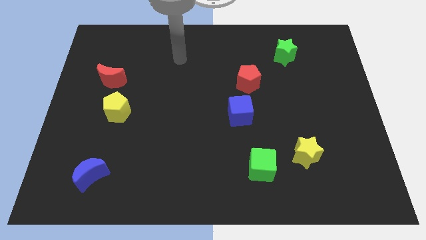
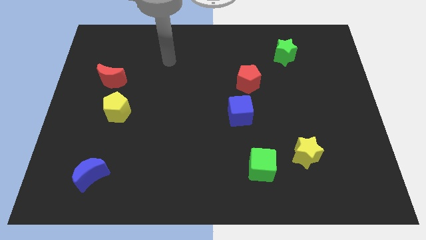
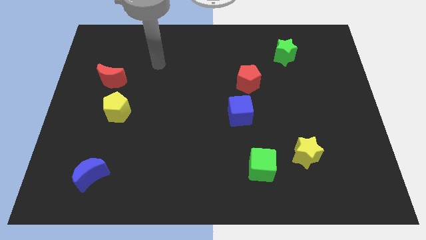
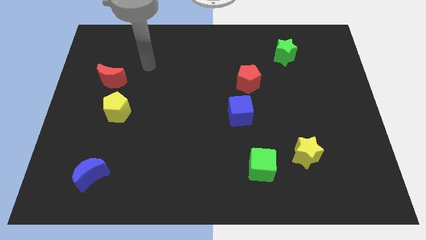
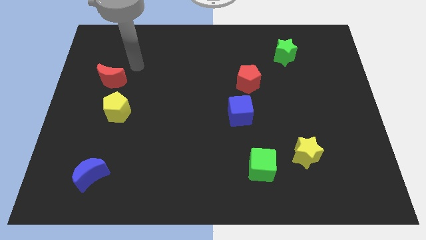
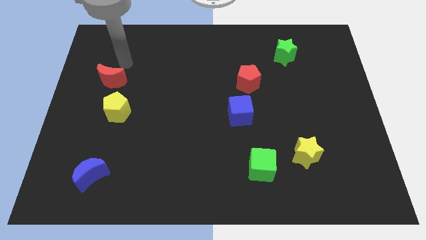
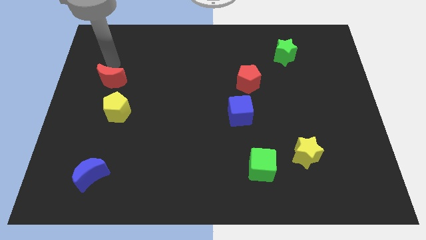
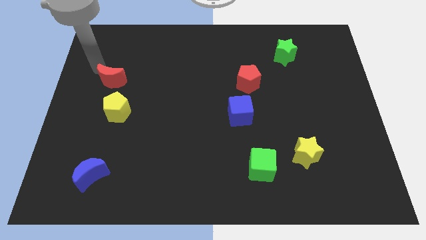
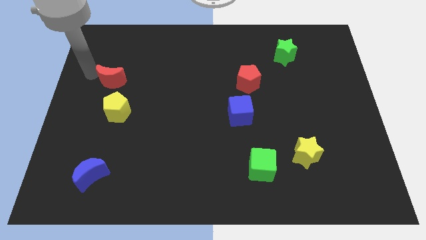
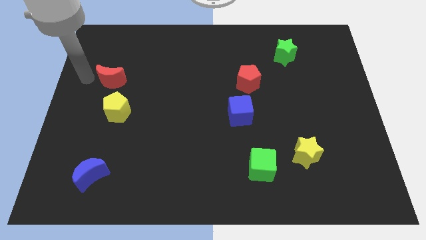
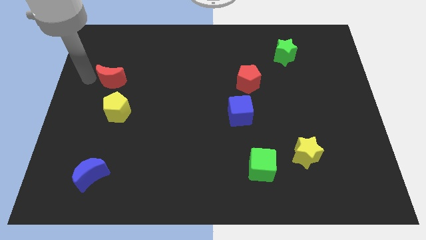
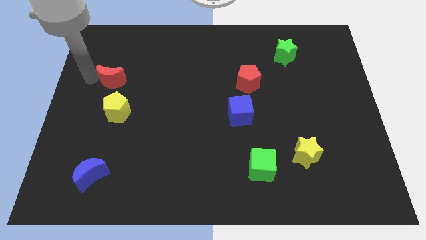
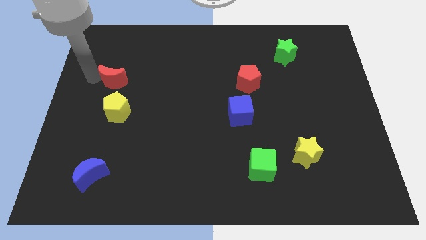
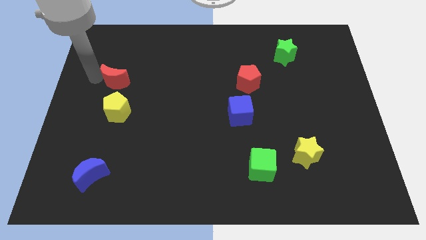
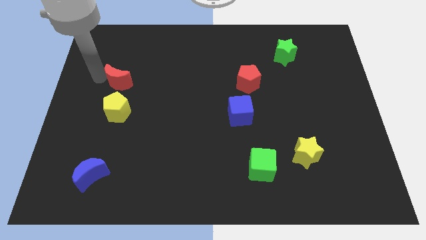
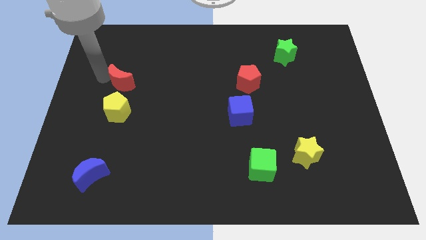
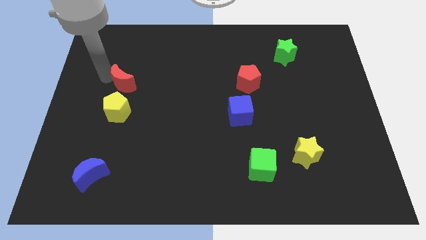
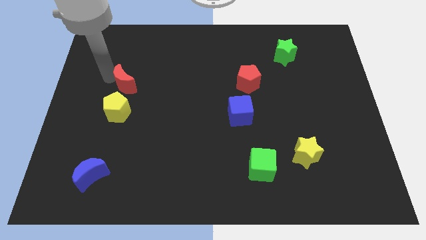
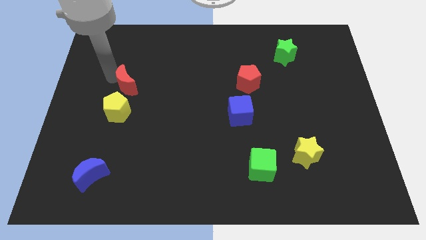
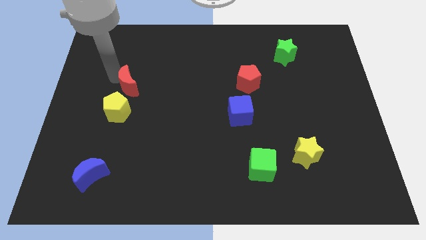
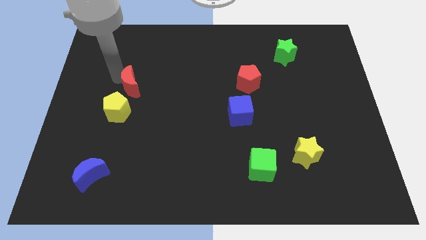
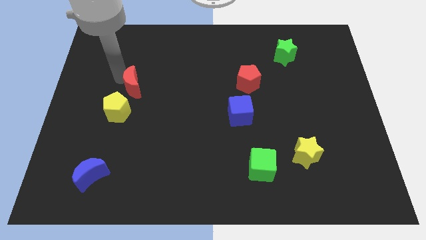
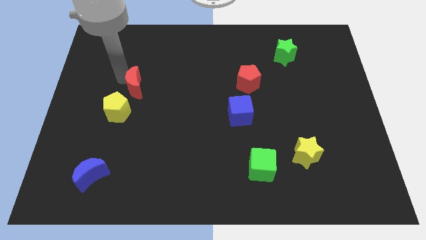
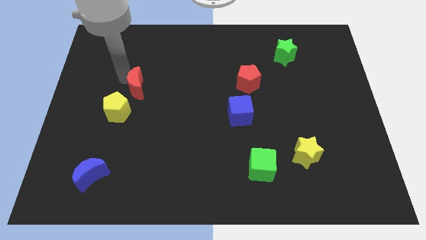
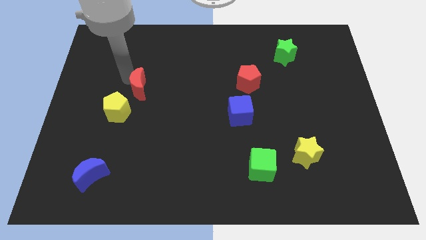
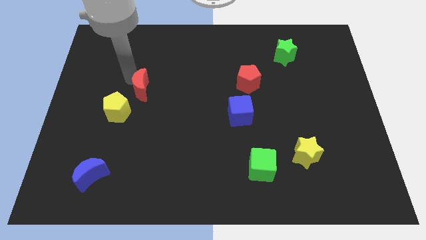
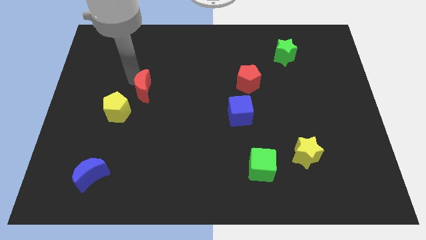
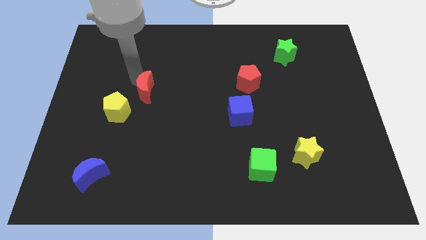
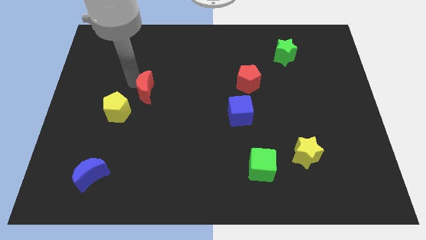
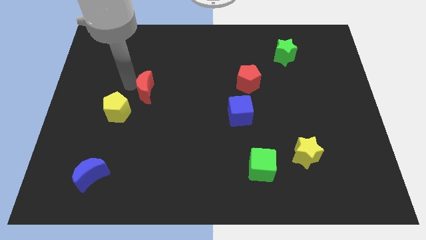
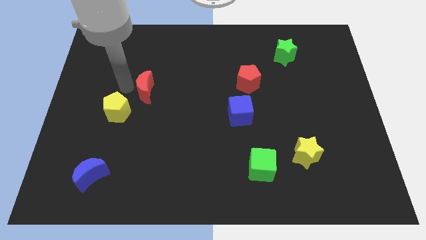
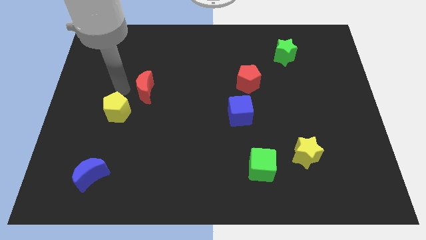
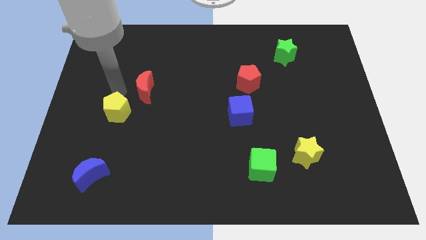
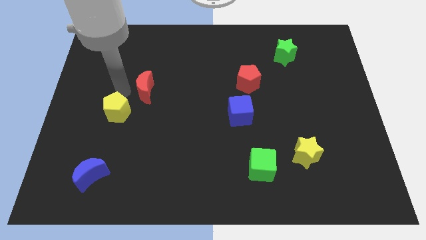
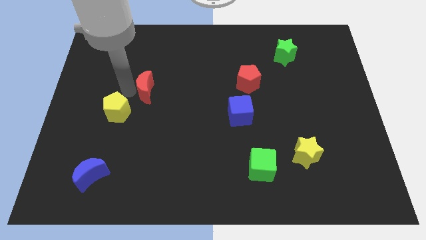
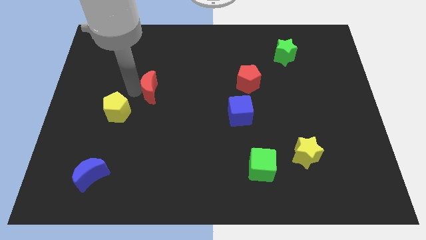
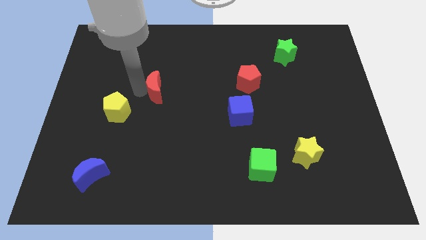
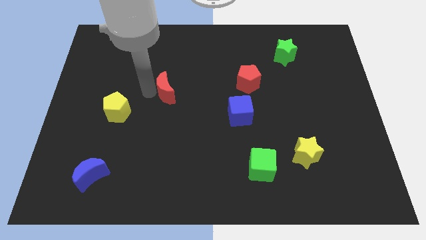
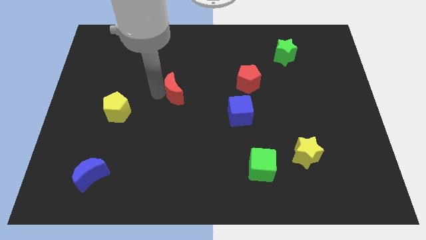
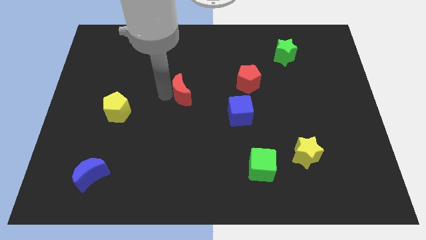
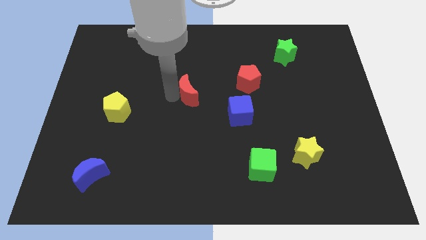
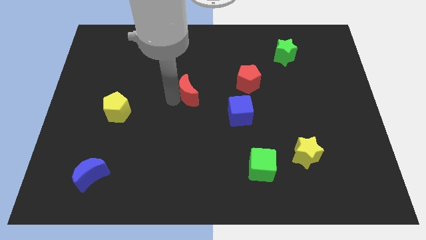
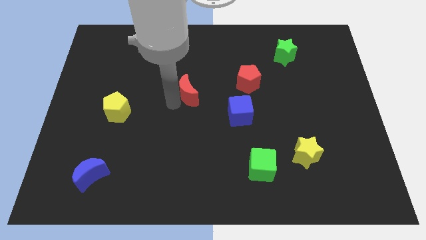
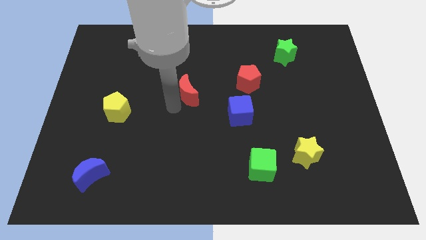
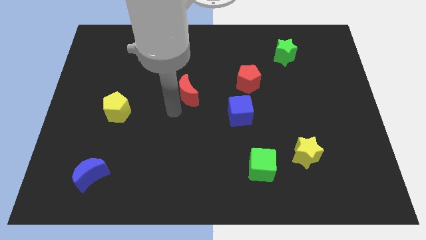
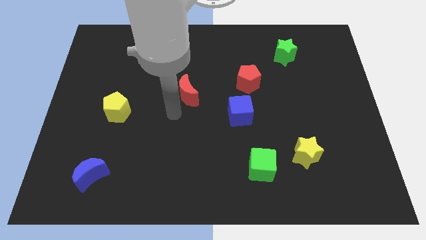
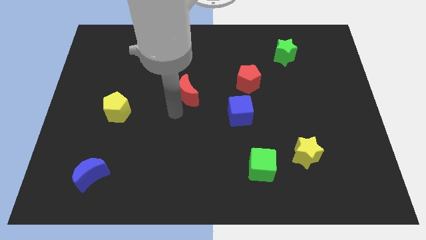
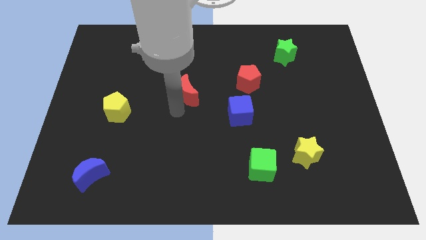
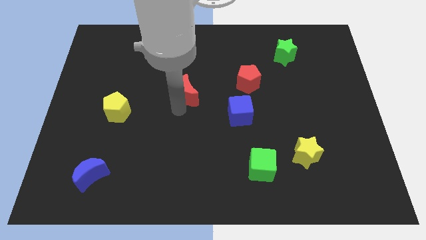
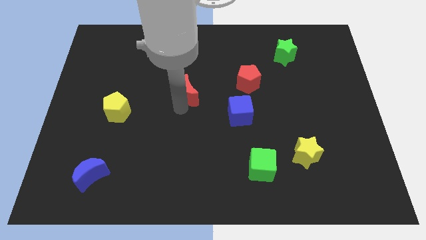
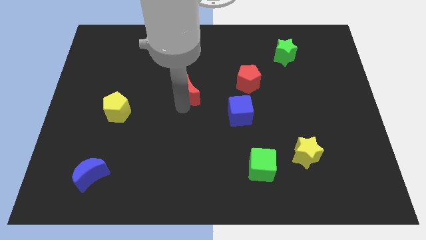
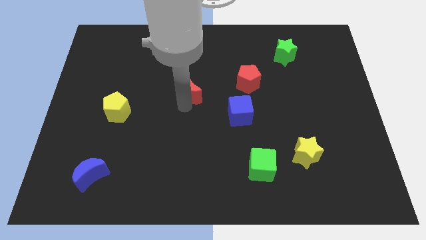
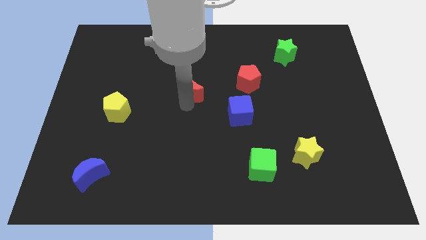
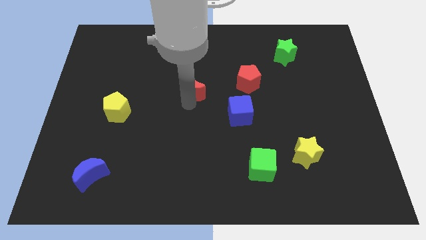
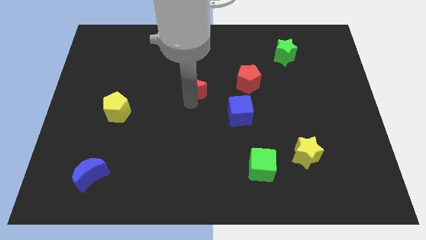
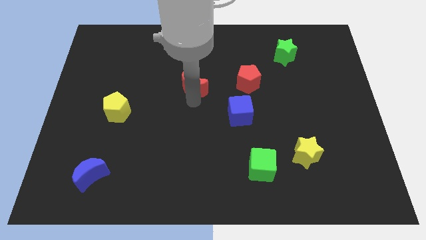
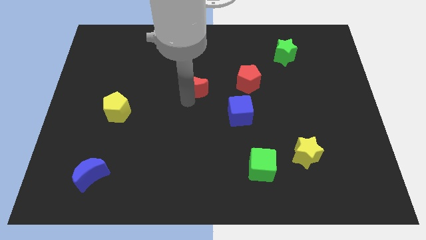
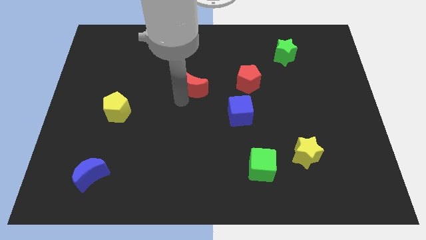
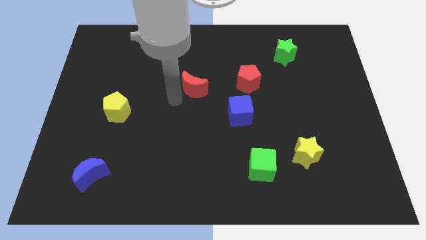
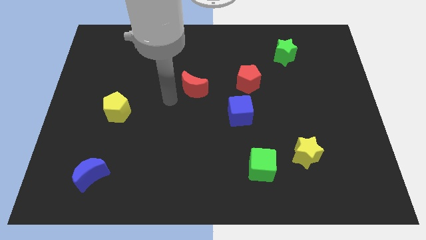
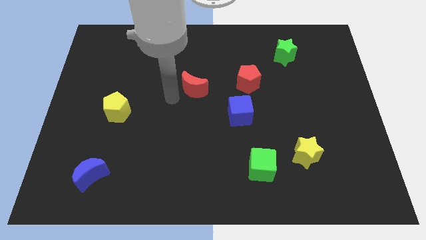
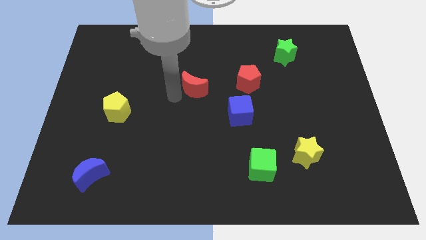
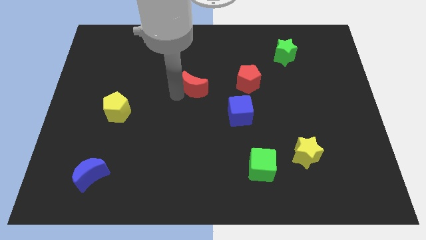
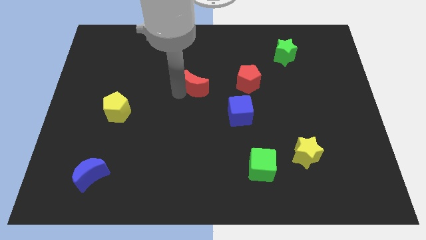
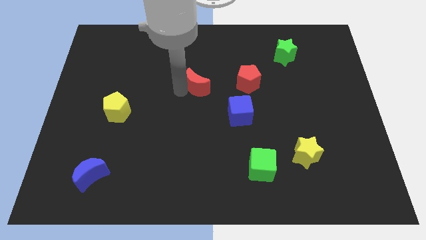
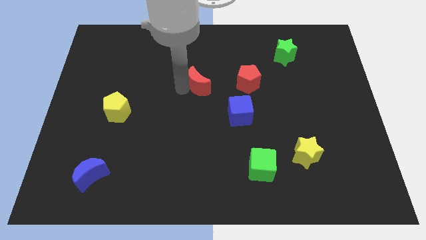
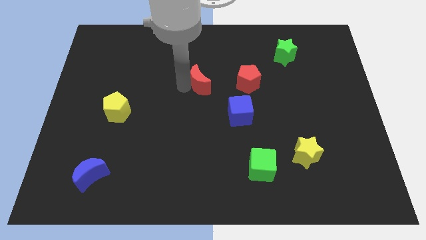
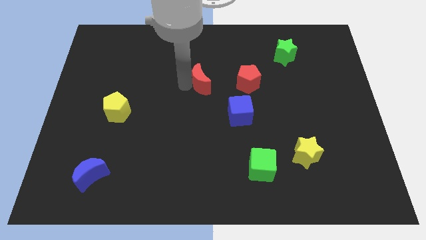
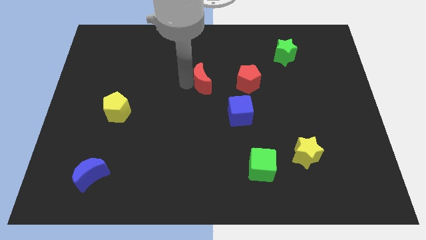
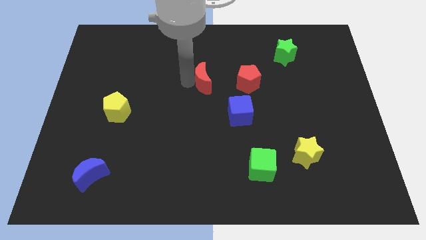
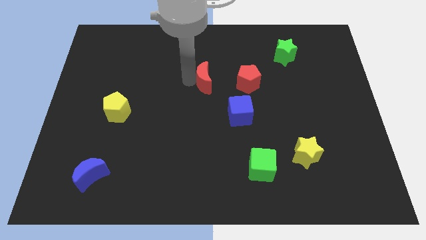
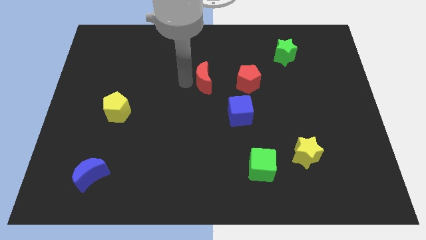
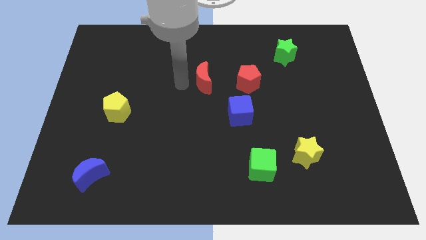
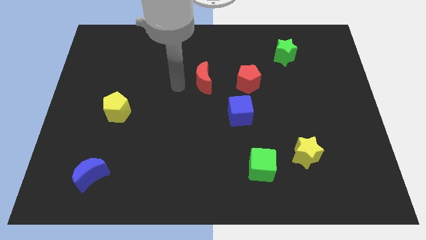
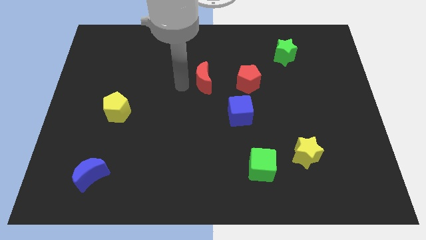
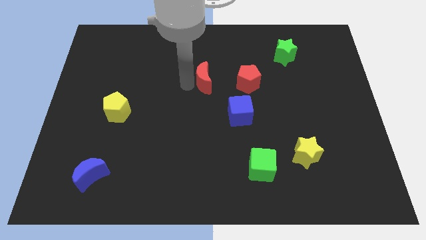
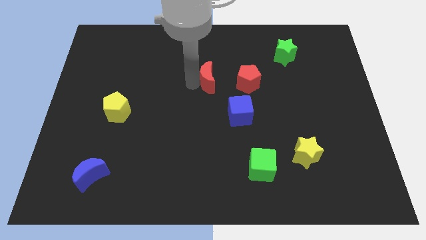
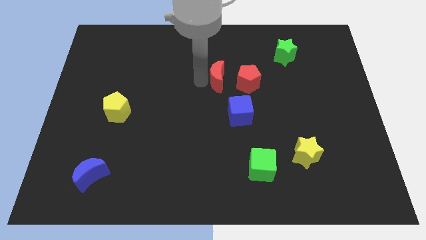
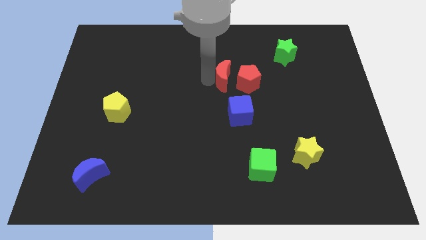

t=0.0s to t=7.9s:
slide the red moon close to the red pentagon
